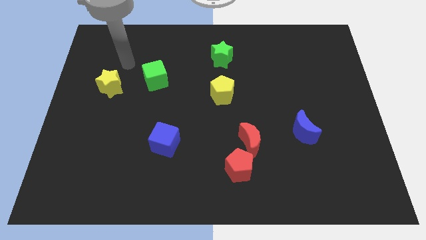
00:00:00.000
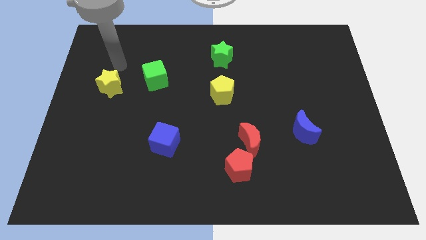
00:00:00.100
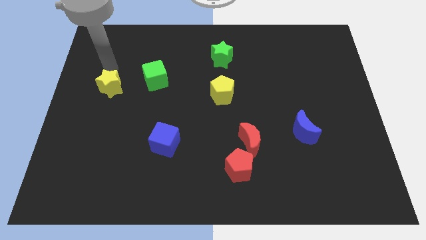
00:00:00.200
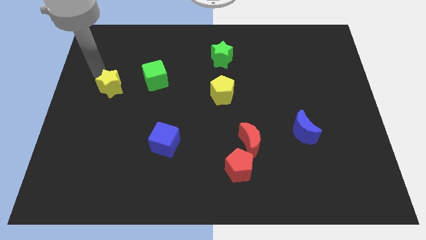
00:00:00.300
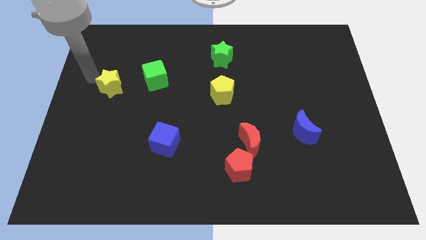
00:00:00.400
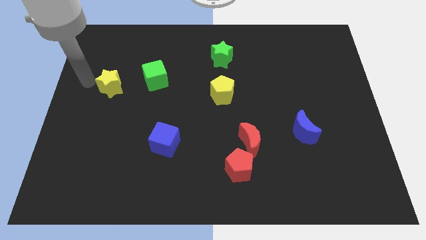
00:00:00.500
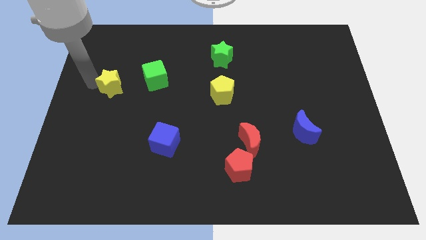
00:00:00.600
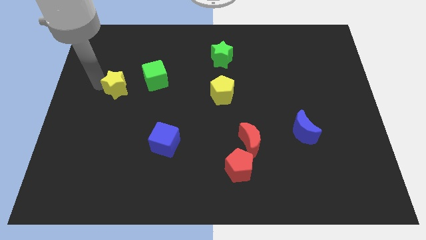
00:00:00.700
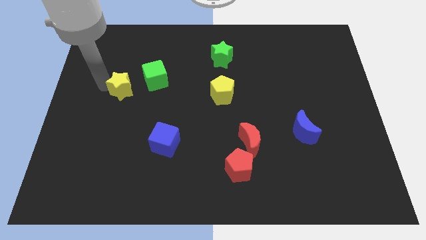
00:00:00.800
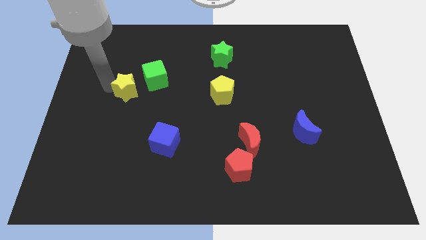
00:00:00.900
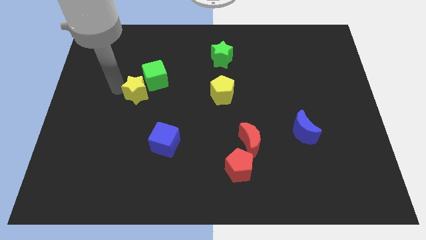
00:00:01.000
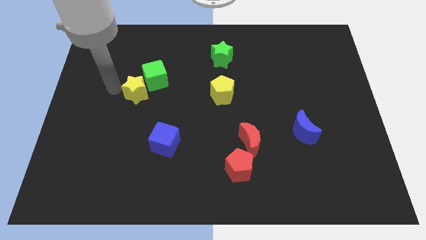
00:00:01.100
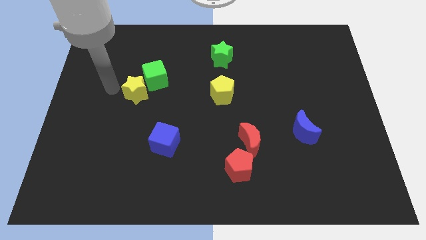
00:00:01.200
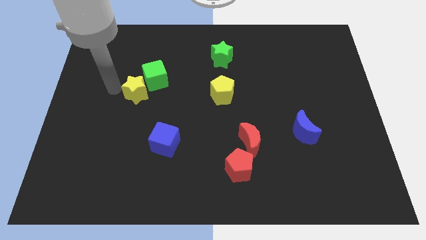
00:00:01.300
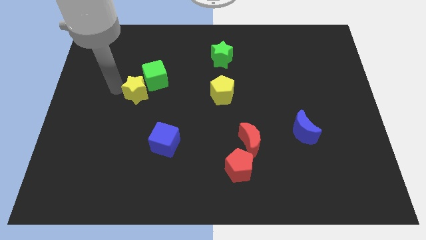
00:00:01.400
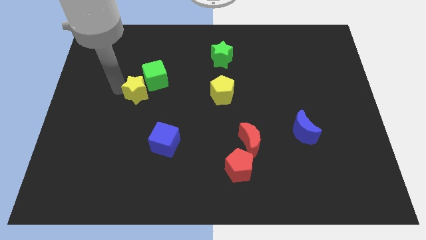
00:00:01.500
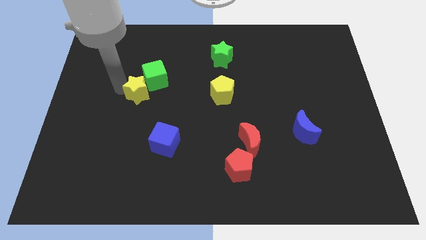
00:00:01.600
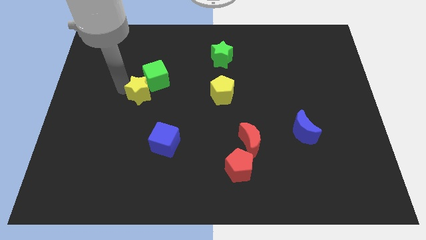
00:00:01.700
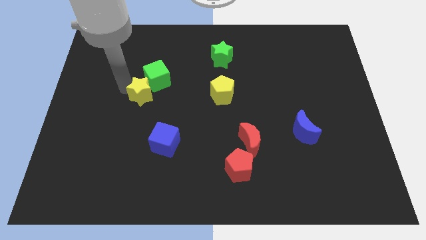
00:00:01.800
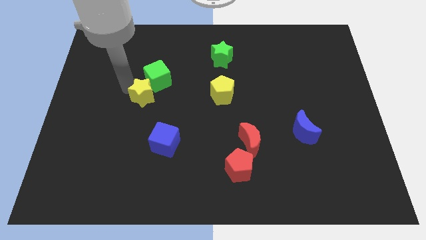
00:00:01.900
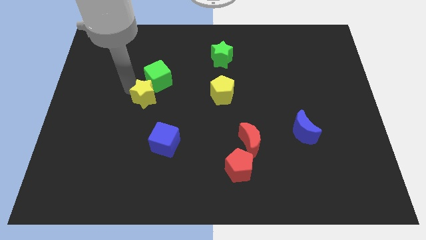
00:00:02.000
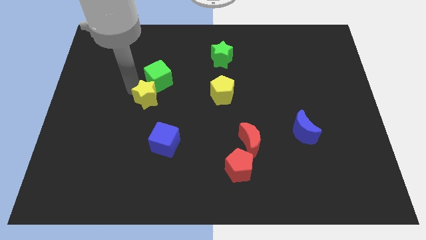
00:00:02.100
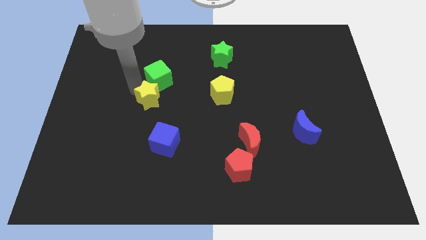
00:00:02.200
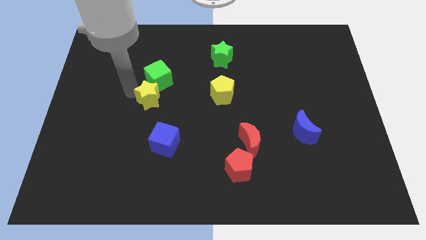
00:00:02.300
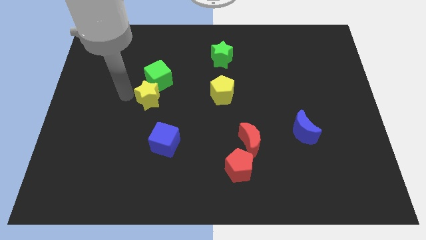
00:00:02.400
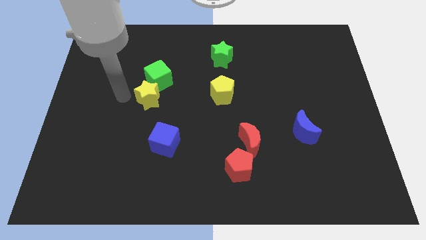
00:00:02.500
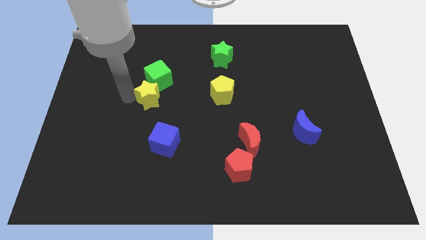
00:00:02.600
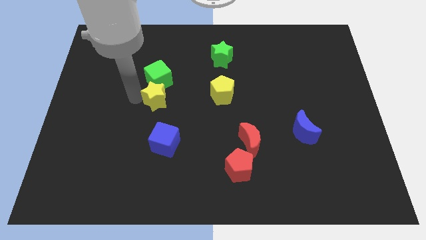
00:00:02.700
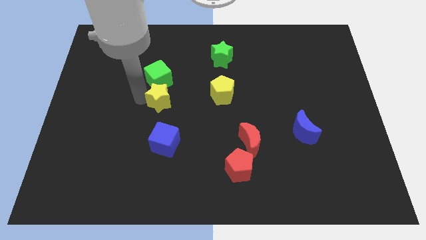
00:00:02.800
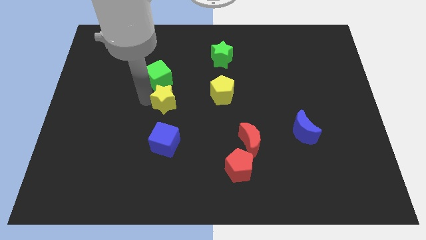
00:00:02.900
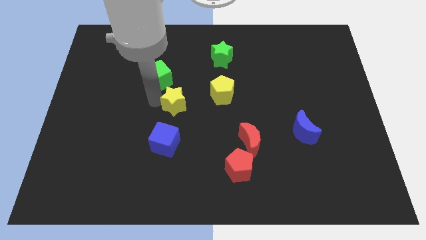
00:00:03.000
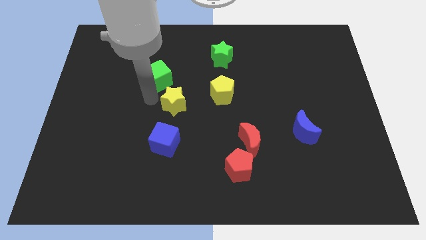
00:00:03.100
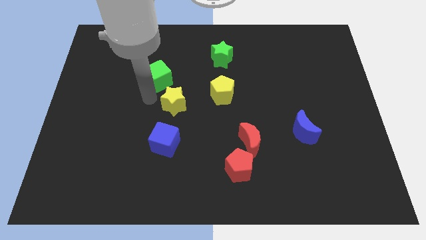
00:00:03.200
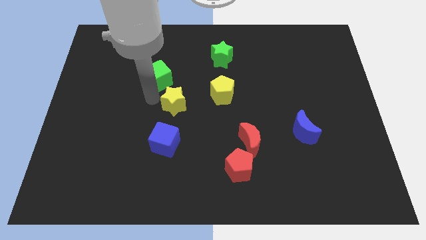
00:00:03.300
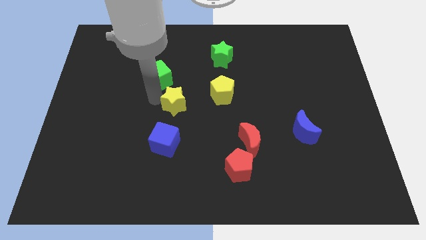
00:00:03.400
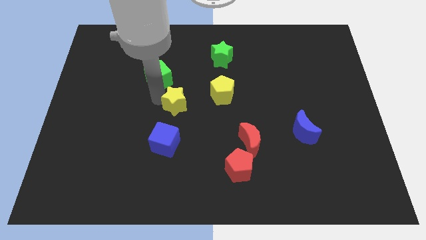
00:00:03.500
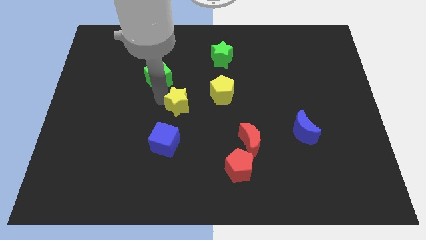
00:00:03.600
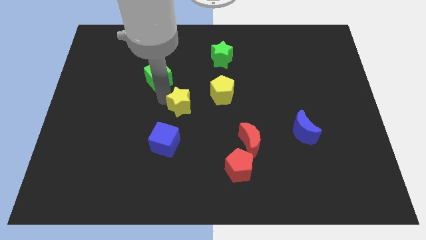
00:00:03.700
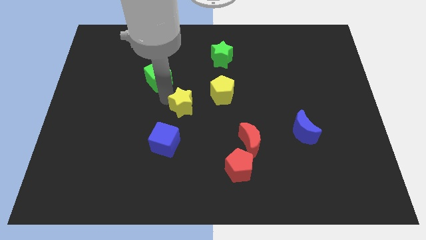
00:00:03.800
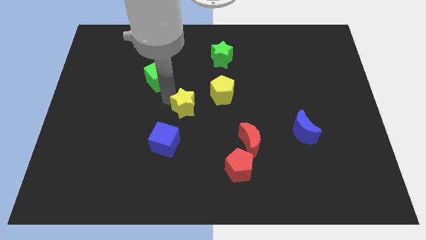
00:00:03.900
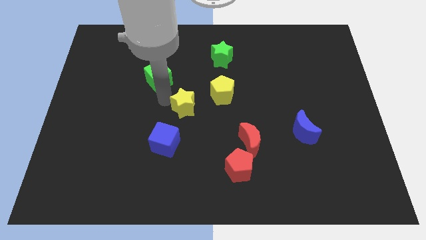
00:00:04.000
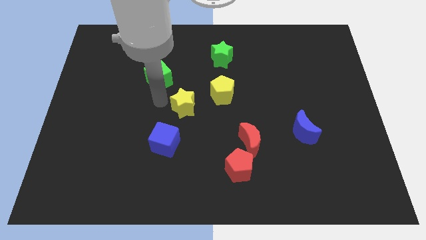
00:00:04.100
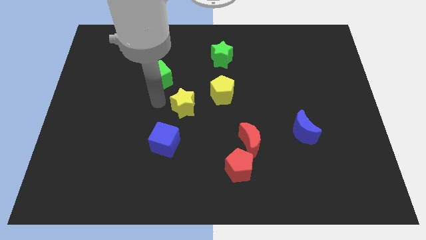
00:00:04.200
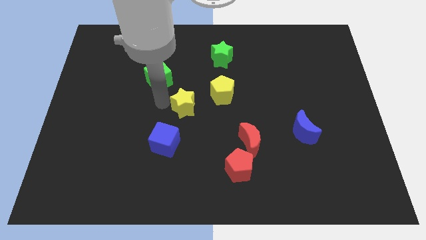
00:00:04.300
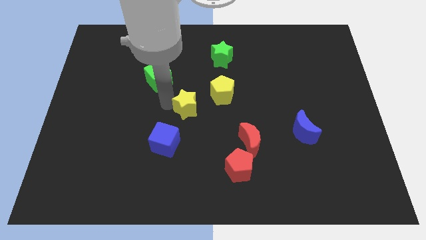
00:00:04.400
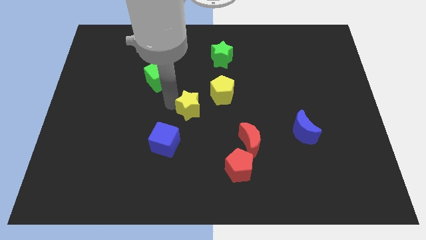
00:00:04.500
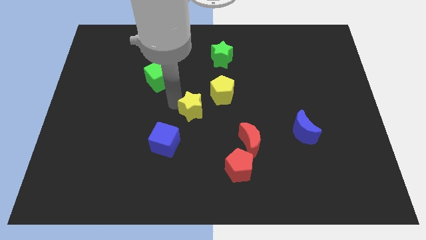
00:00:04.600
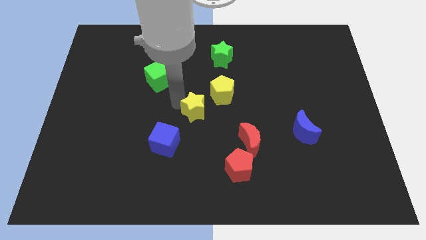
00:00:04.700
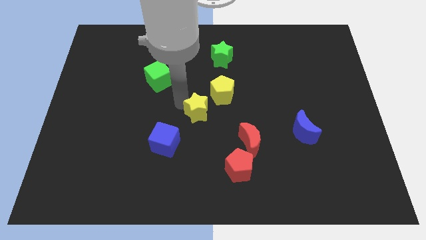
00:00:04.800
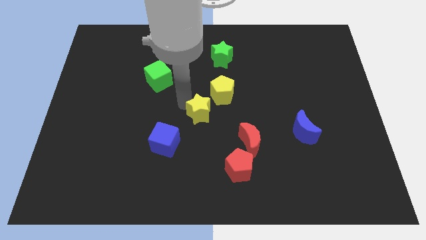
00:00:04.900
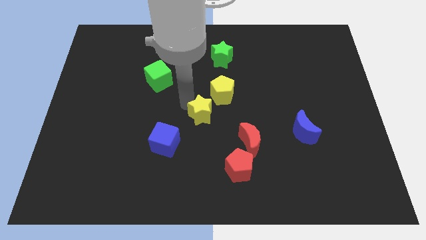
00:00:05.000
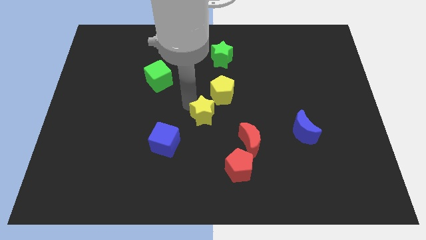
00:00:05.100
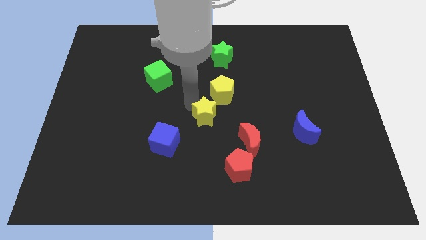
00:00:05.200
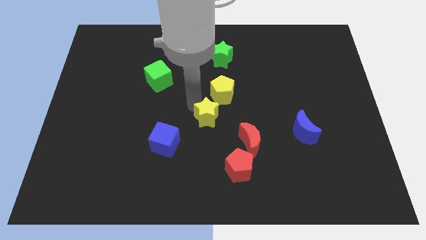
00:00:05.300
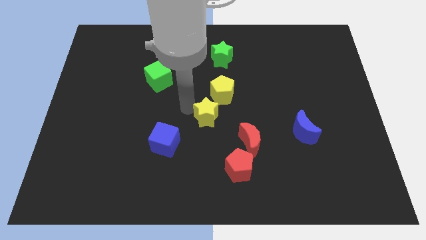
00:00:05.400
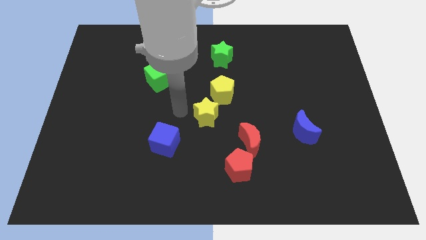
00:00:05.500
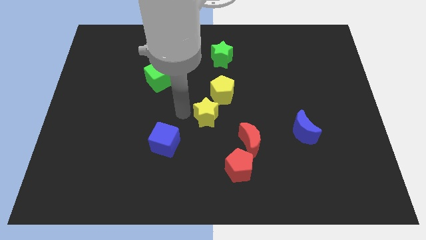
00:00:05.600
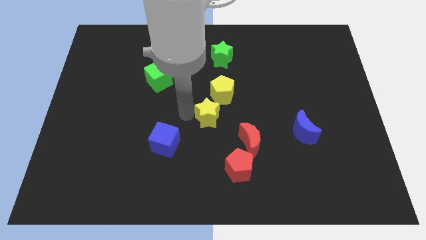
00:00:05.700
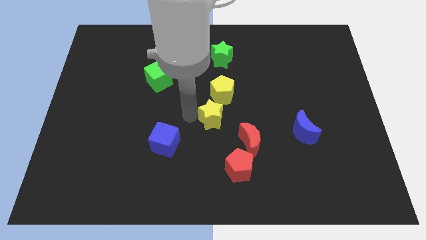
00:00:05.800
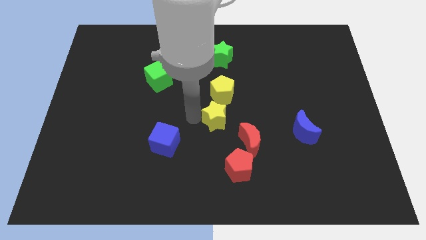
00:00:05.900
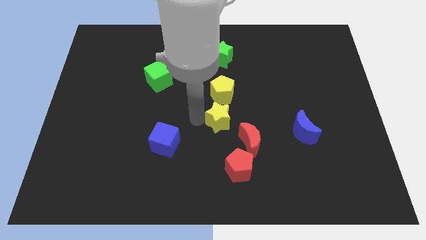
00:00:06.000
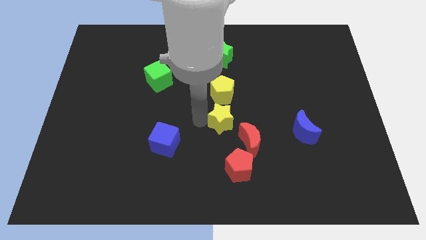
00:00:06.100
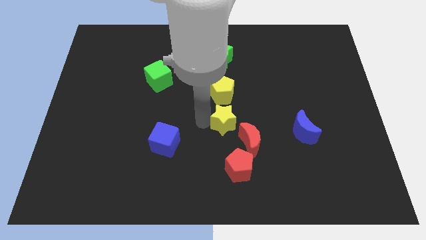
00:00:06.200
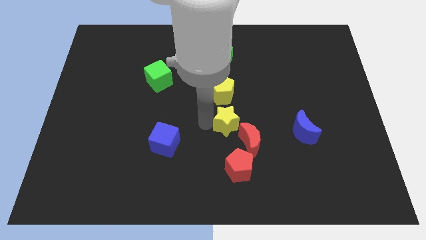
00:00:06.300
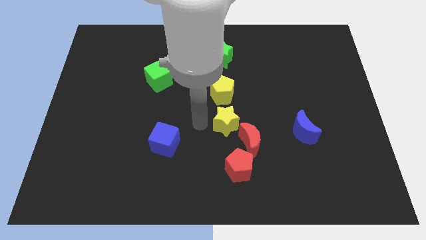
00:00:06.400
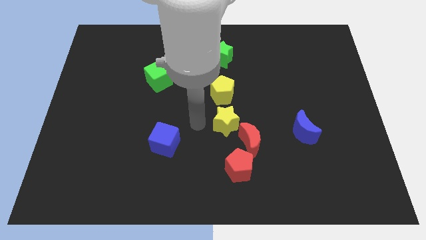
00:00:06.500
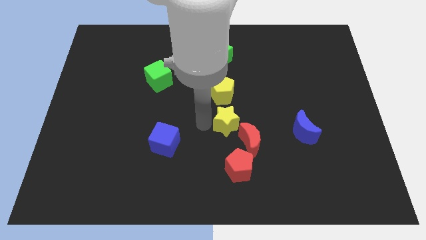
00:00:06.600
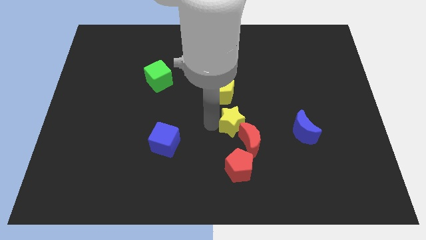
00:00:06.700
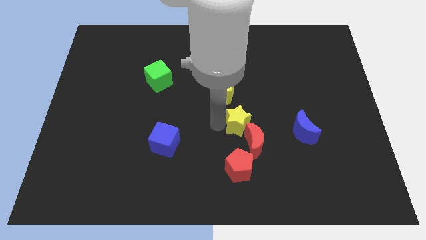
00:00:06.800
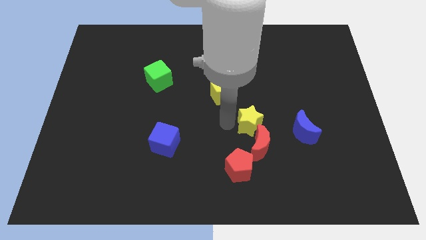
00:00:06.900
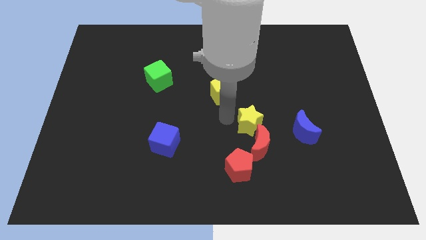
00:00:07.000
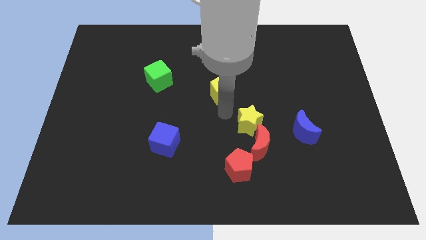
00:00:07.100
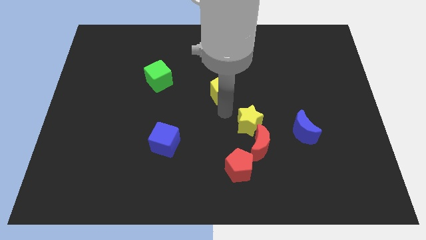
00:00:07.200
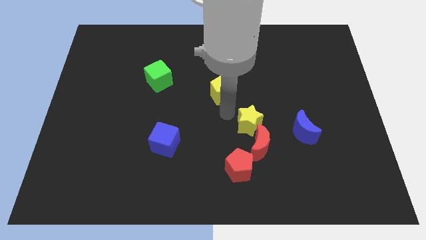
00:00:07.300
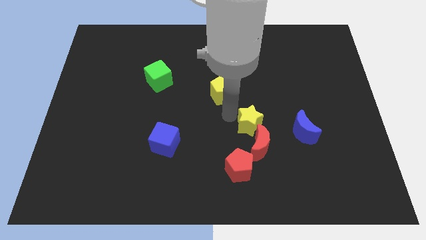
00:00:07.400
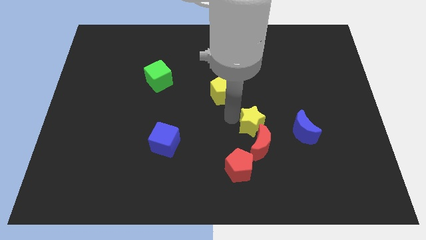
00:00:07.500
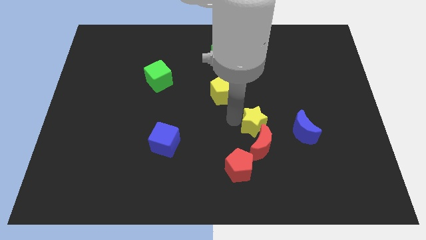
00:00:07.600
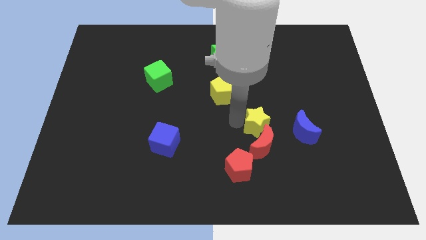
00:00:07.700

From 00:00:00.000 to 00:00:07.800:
push the yellow star to the top right side of the red pentagon
